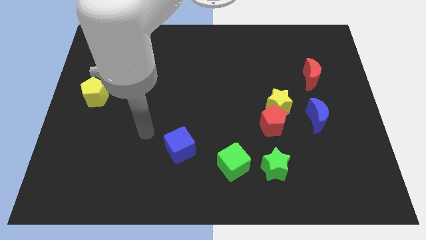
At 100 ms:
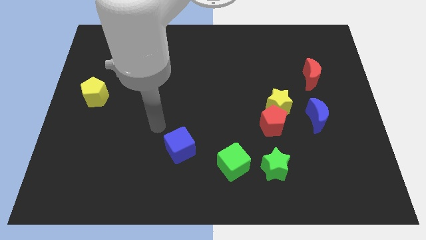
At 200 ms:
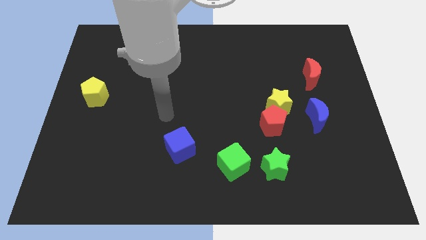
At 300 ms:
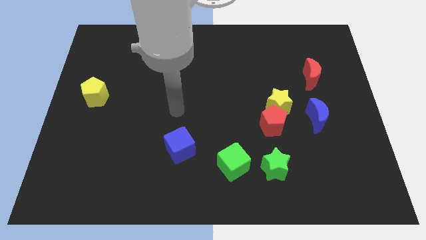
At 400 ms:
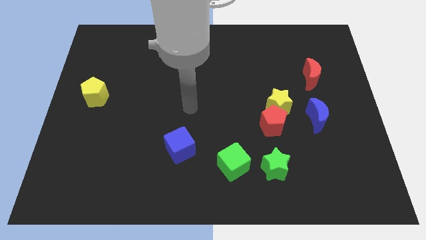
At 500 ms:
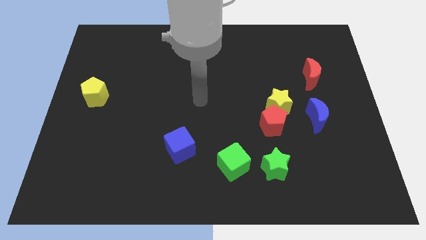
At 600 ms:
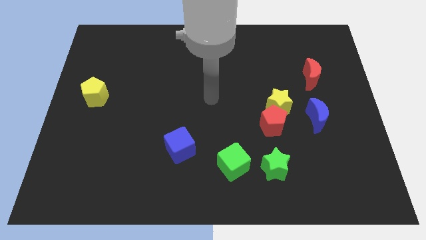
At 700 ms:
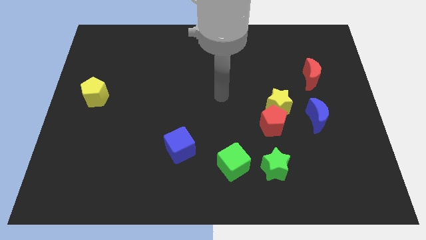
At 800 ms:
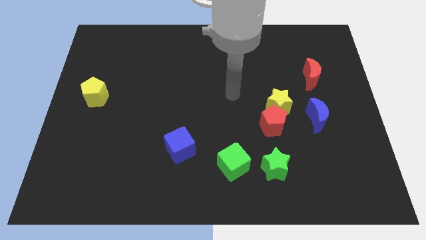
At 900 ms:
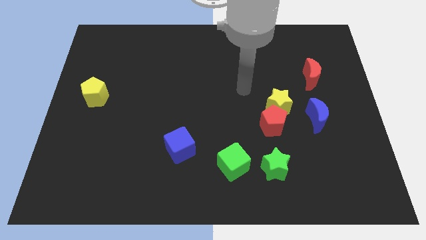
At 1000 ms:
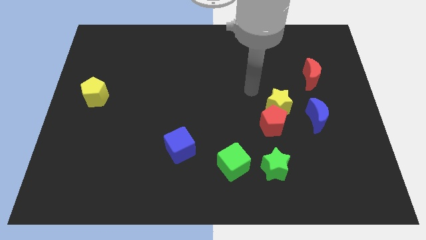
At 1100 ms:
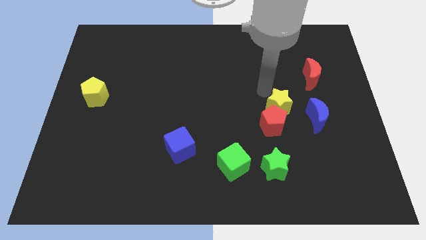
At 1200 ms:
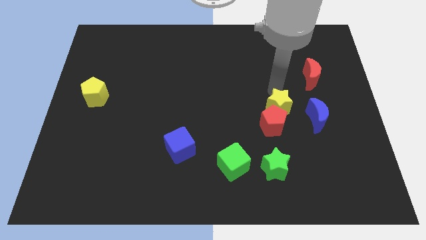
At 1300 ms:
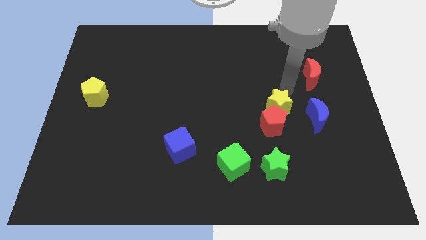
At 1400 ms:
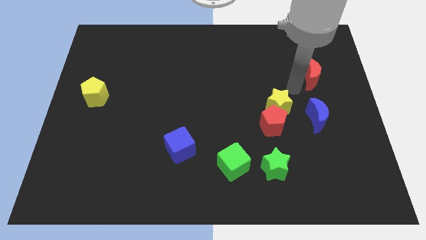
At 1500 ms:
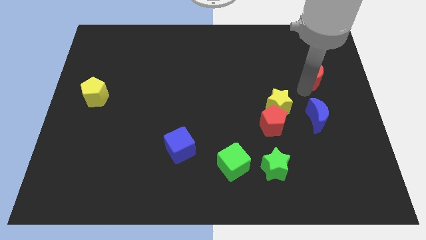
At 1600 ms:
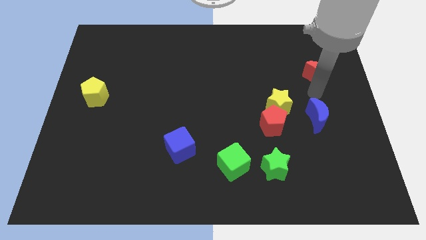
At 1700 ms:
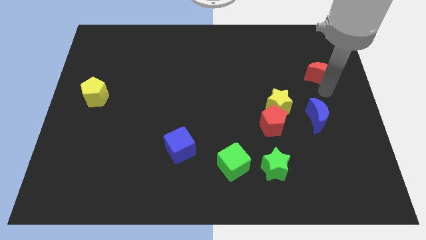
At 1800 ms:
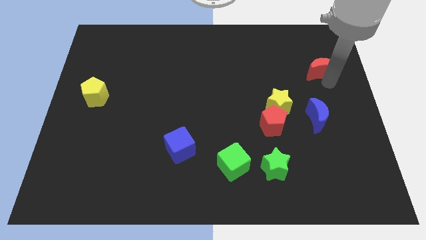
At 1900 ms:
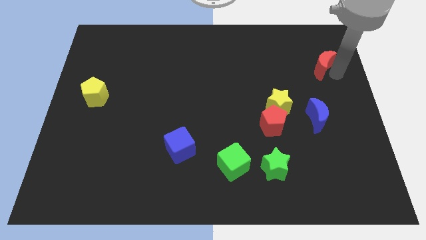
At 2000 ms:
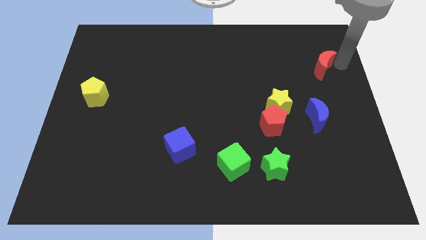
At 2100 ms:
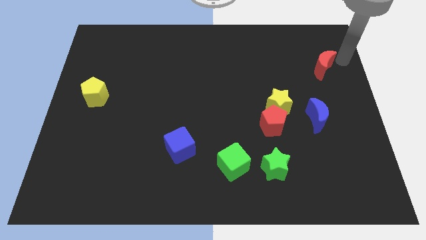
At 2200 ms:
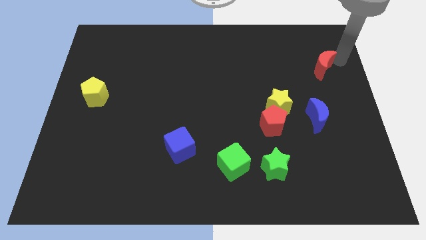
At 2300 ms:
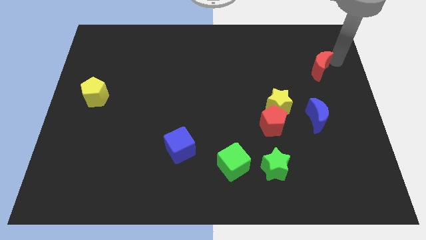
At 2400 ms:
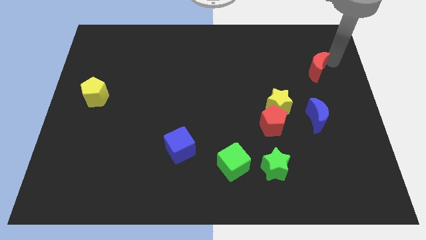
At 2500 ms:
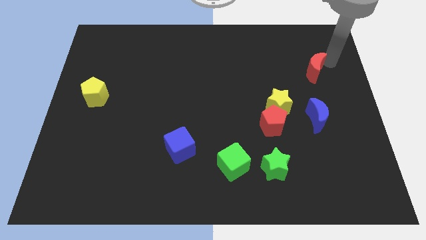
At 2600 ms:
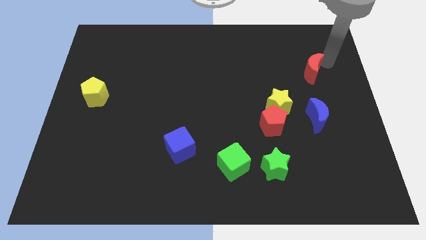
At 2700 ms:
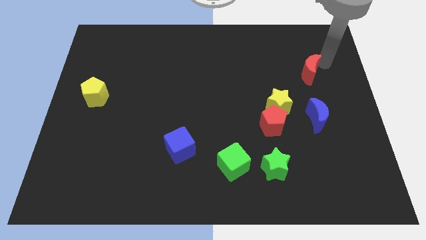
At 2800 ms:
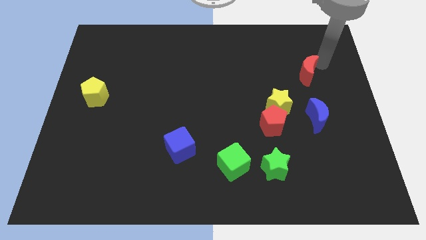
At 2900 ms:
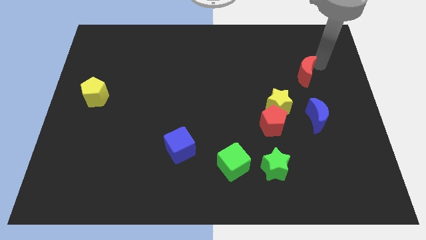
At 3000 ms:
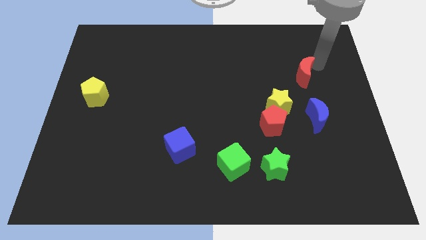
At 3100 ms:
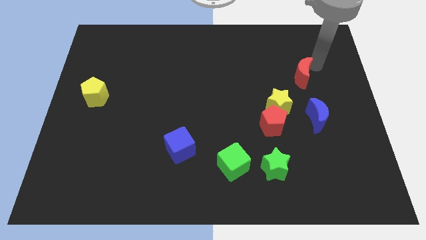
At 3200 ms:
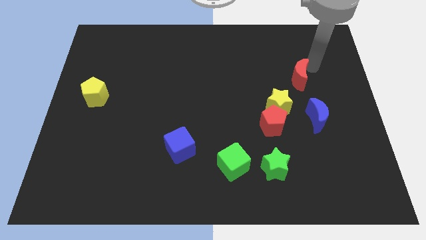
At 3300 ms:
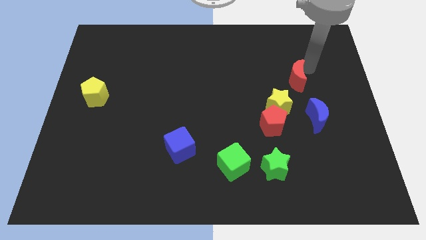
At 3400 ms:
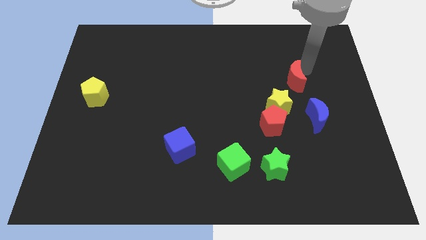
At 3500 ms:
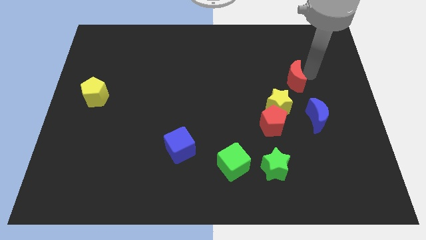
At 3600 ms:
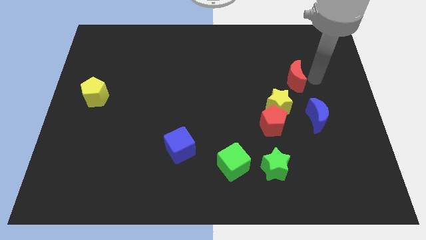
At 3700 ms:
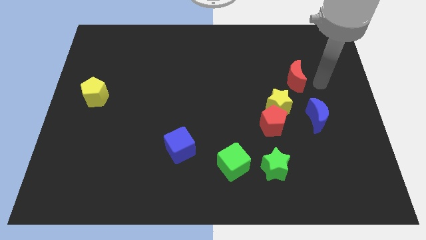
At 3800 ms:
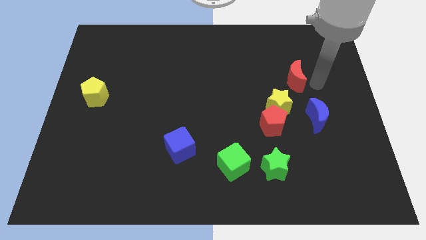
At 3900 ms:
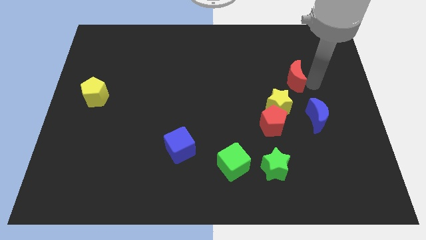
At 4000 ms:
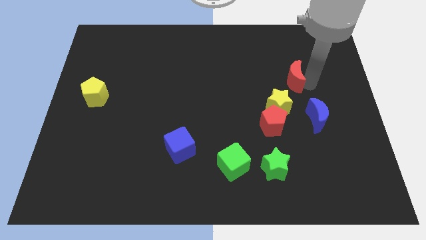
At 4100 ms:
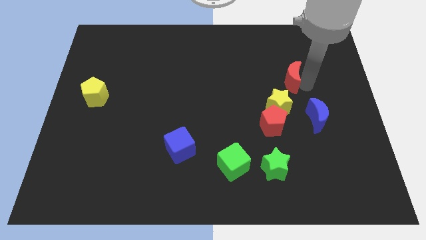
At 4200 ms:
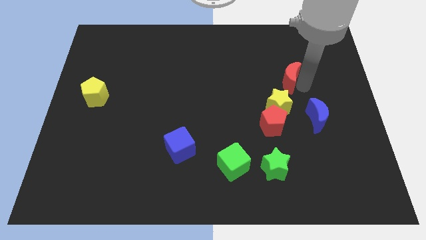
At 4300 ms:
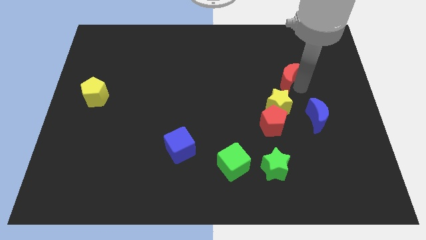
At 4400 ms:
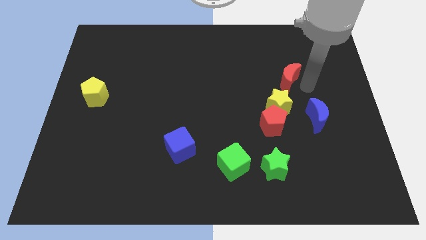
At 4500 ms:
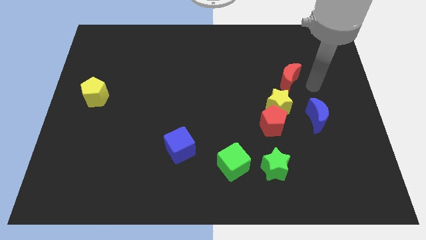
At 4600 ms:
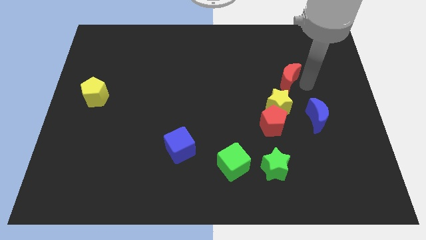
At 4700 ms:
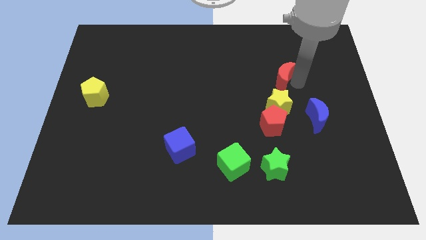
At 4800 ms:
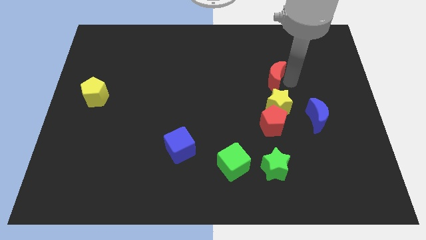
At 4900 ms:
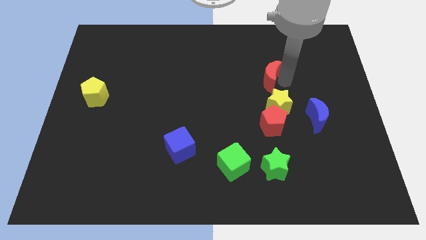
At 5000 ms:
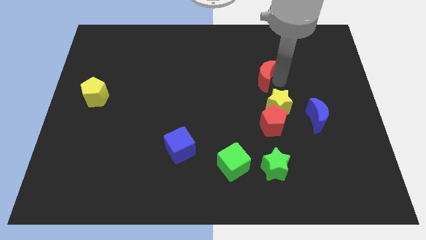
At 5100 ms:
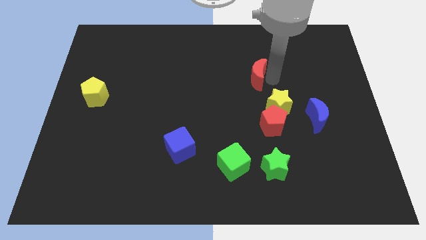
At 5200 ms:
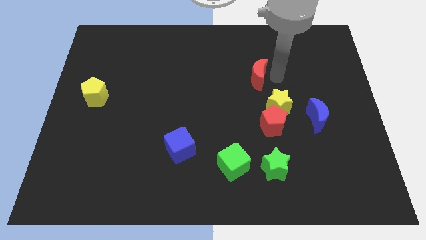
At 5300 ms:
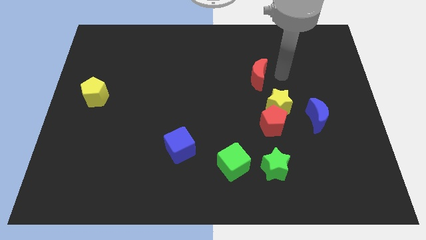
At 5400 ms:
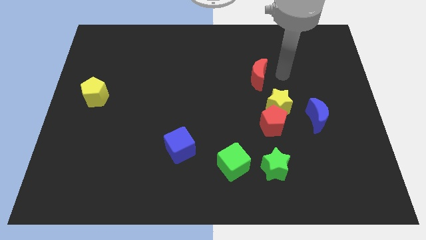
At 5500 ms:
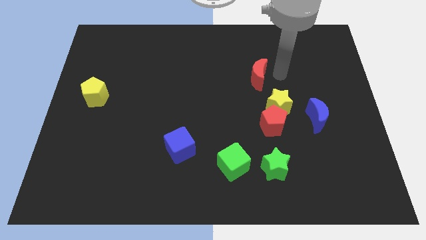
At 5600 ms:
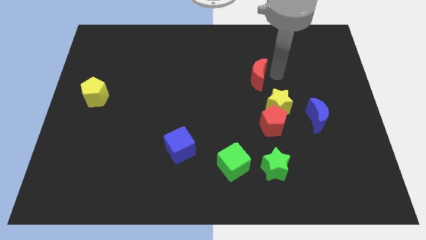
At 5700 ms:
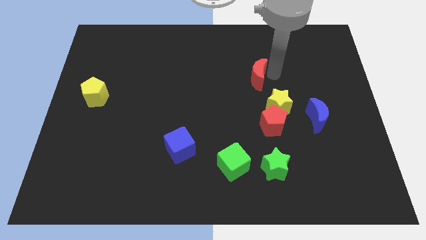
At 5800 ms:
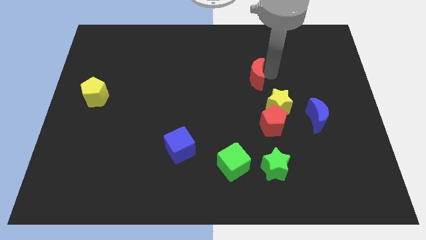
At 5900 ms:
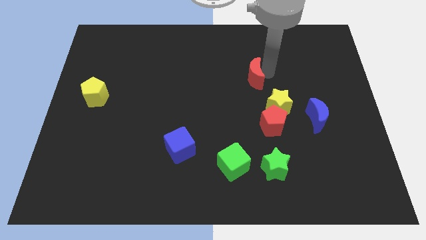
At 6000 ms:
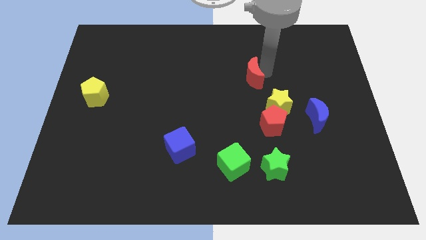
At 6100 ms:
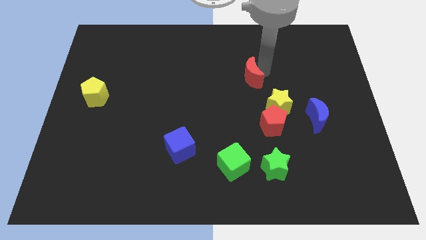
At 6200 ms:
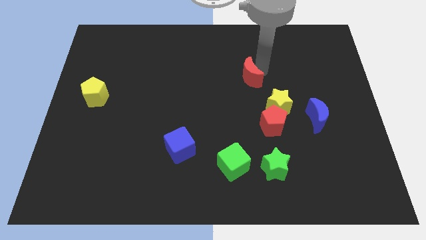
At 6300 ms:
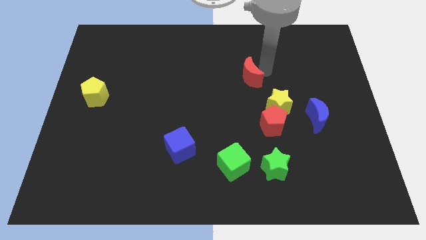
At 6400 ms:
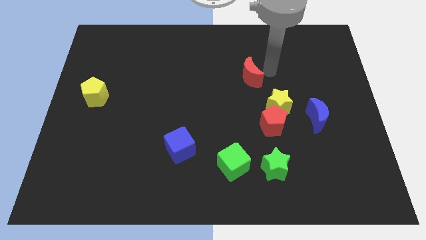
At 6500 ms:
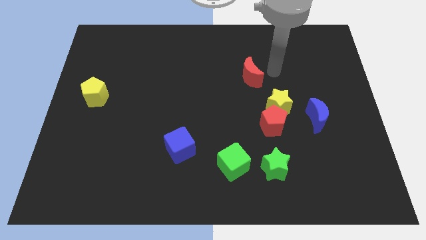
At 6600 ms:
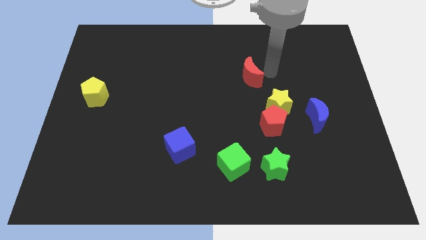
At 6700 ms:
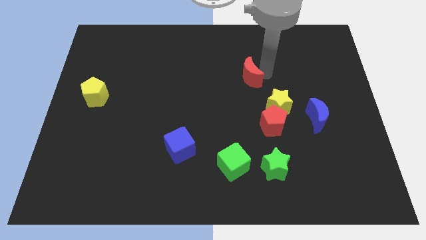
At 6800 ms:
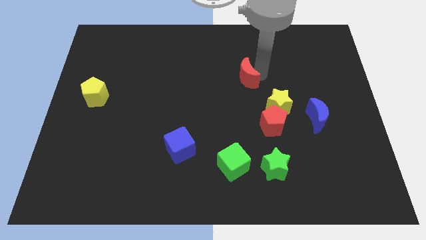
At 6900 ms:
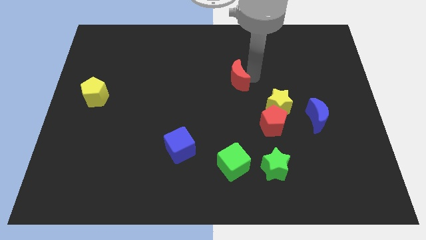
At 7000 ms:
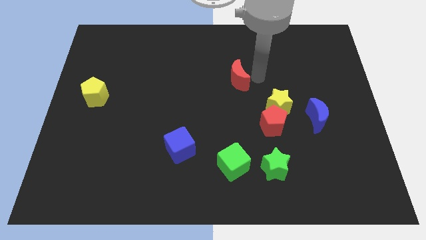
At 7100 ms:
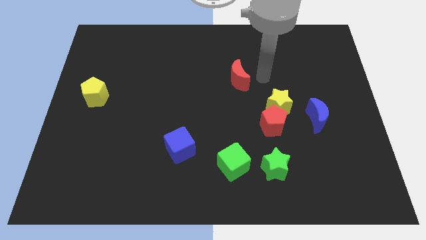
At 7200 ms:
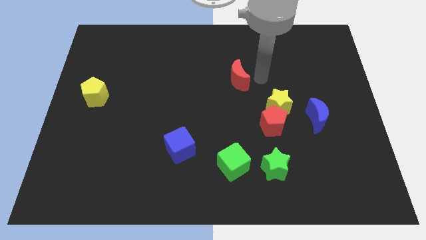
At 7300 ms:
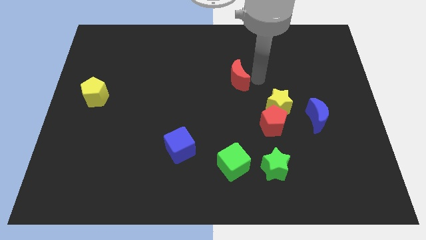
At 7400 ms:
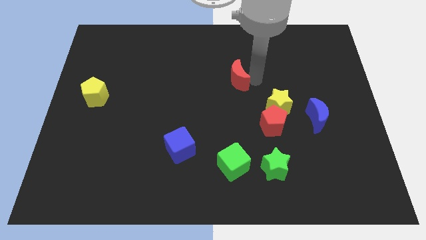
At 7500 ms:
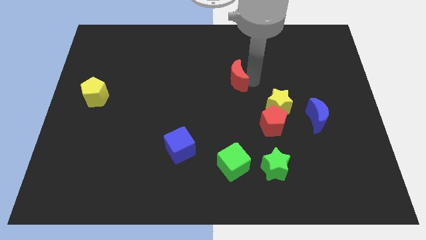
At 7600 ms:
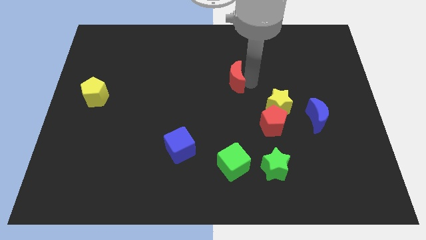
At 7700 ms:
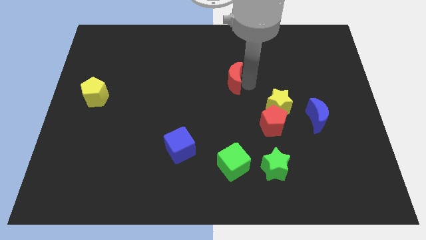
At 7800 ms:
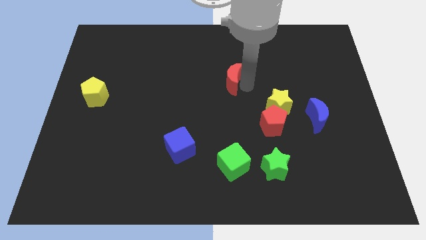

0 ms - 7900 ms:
slide the red moon left

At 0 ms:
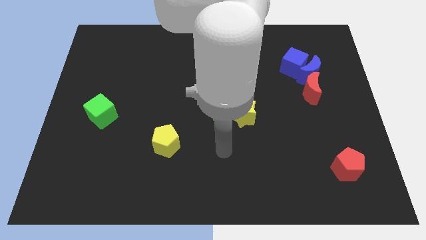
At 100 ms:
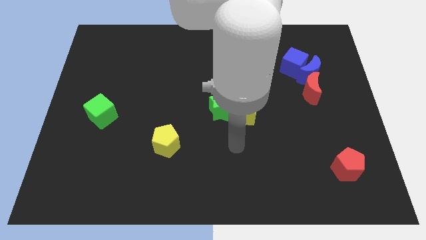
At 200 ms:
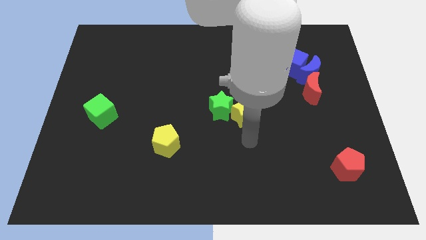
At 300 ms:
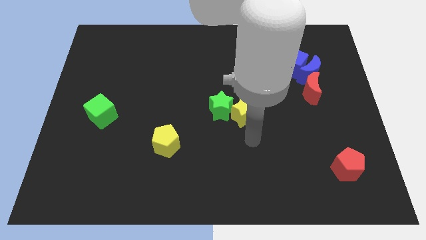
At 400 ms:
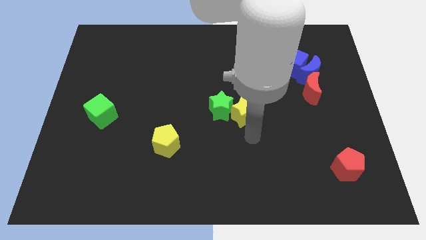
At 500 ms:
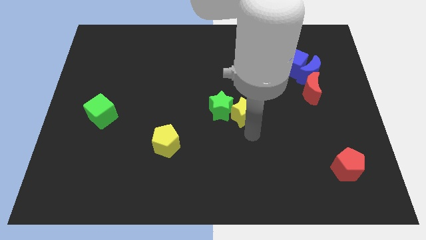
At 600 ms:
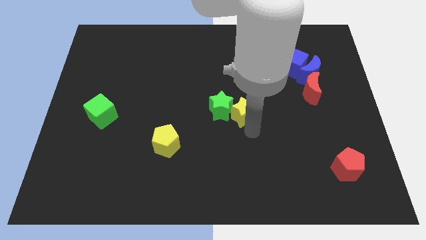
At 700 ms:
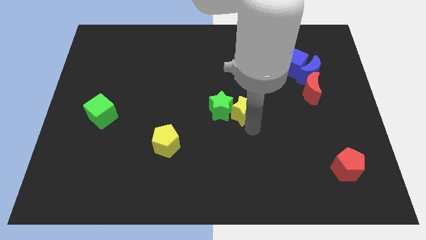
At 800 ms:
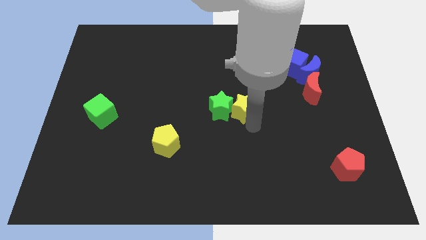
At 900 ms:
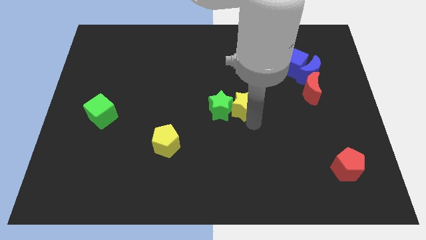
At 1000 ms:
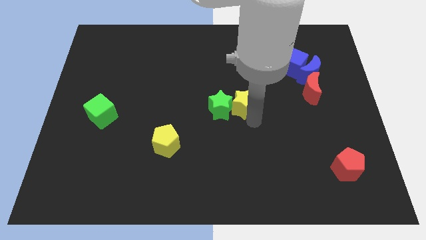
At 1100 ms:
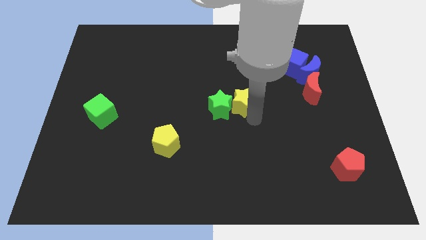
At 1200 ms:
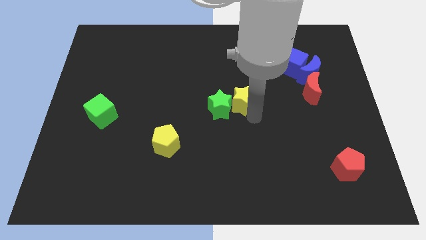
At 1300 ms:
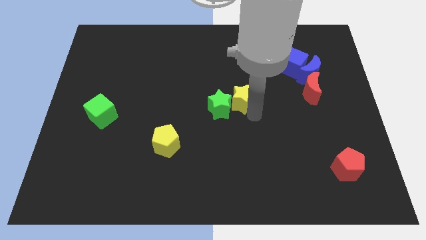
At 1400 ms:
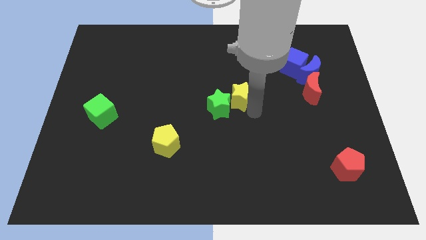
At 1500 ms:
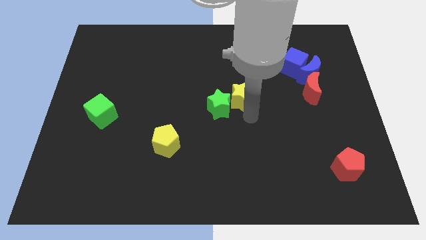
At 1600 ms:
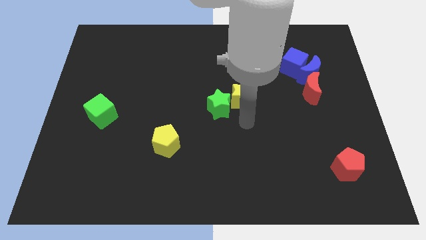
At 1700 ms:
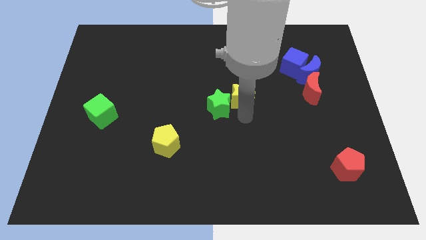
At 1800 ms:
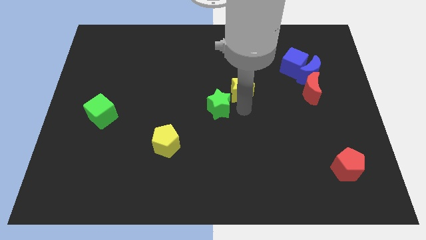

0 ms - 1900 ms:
slide the yellow star a little upwards
